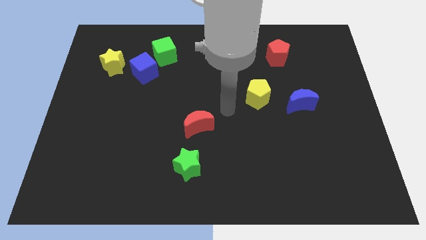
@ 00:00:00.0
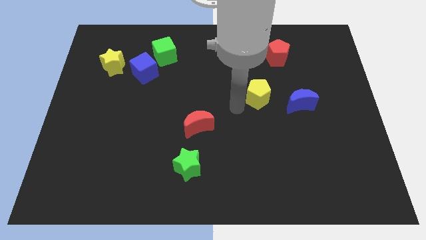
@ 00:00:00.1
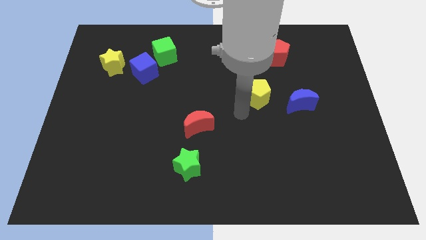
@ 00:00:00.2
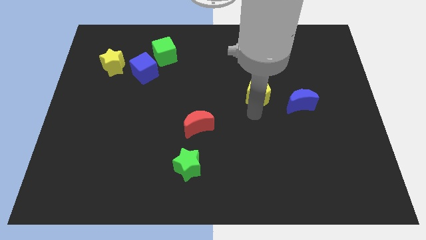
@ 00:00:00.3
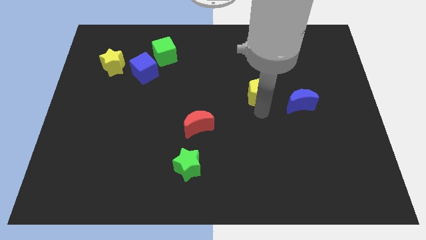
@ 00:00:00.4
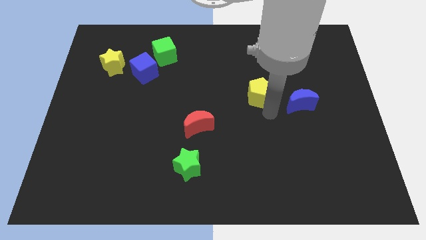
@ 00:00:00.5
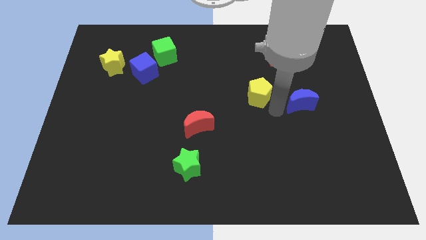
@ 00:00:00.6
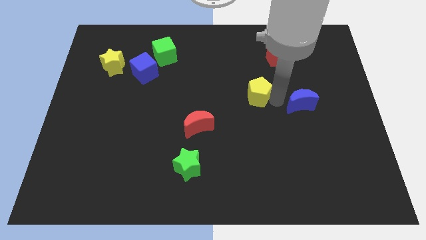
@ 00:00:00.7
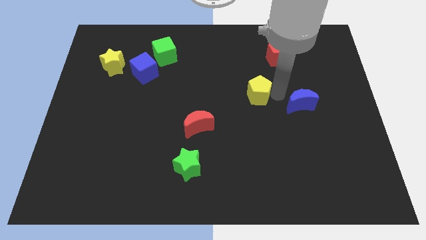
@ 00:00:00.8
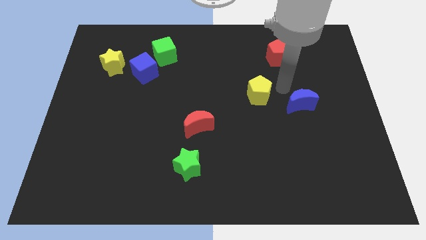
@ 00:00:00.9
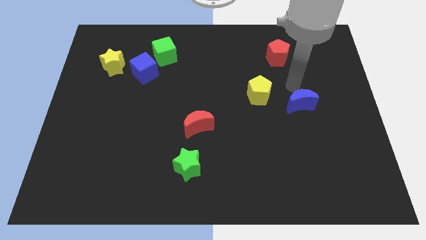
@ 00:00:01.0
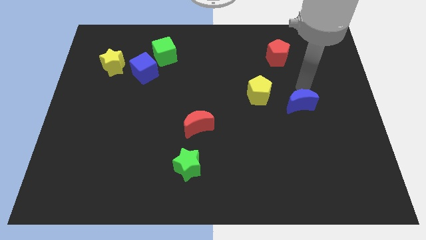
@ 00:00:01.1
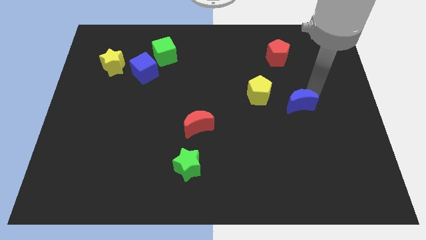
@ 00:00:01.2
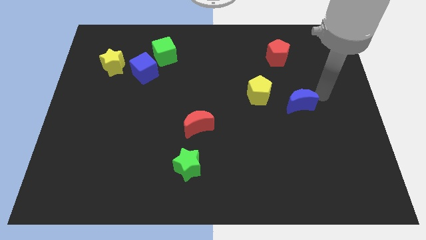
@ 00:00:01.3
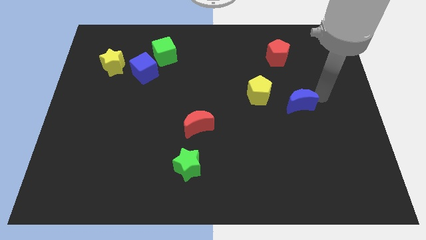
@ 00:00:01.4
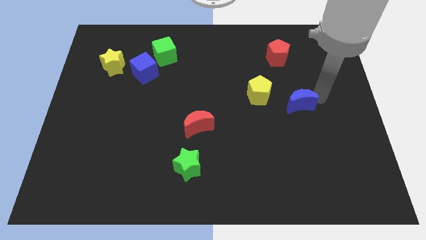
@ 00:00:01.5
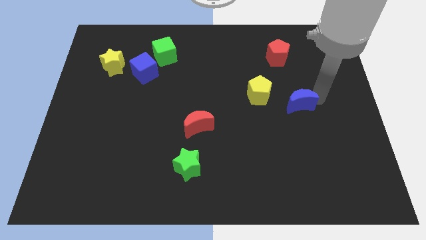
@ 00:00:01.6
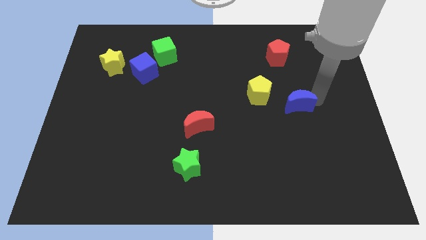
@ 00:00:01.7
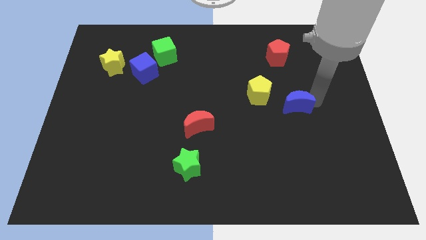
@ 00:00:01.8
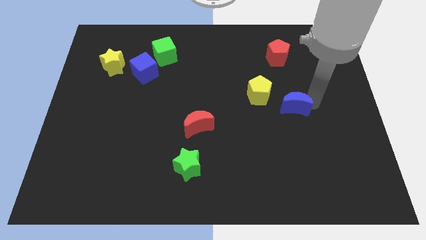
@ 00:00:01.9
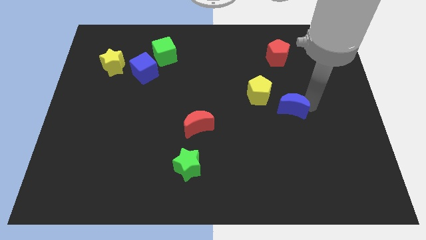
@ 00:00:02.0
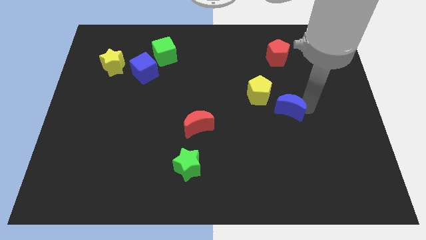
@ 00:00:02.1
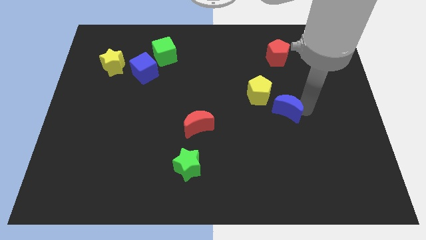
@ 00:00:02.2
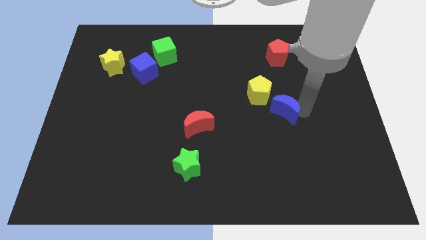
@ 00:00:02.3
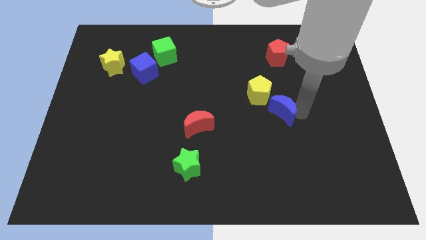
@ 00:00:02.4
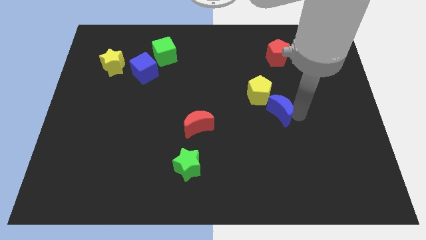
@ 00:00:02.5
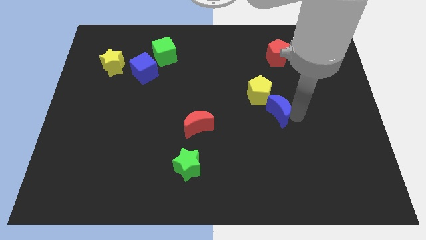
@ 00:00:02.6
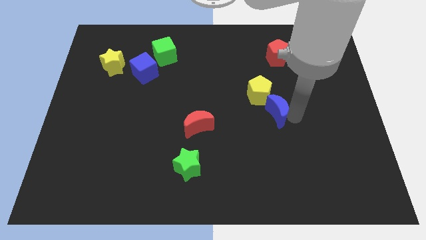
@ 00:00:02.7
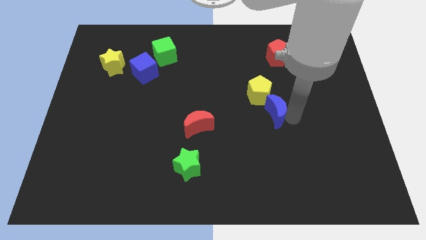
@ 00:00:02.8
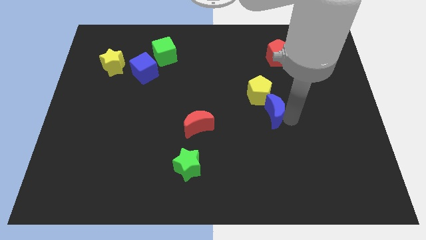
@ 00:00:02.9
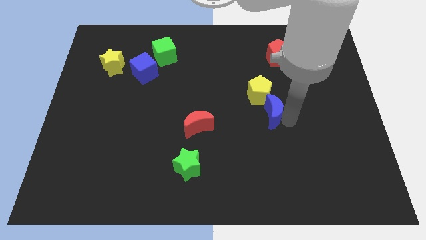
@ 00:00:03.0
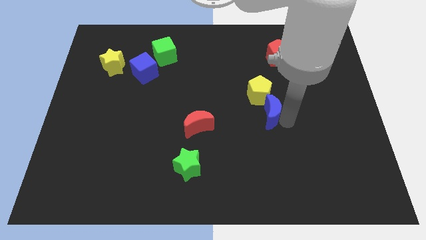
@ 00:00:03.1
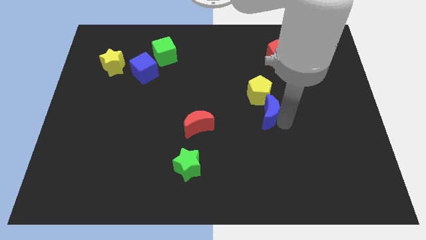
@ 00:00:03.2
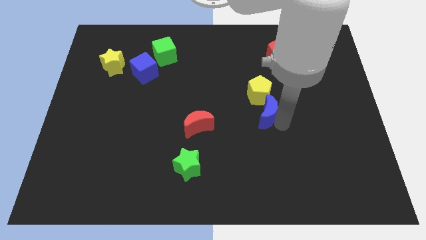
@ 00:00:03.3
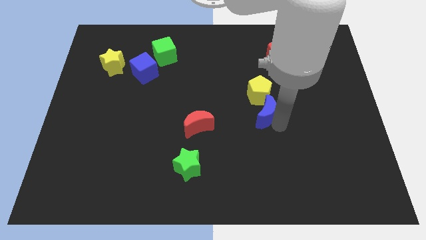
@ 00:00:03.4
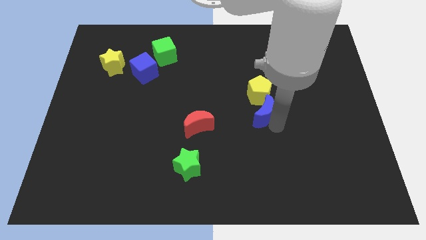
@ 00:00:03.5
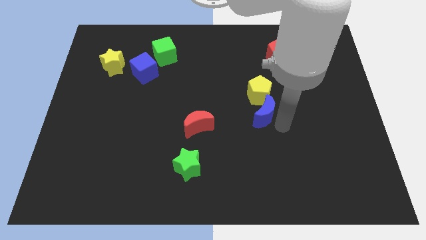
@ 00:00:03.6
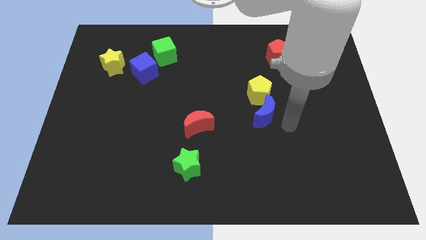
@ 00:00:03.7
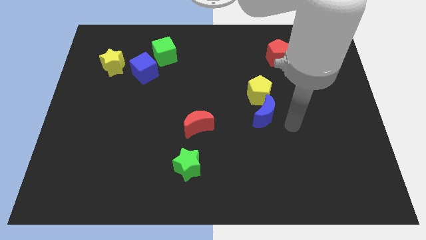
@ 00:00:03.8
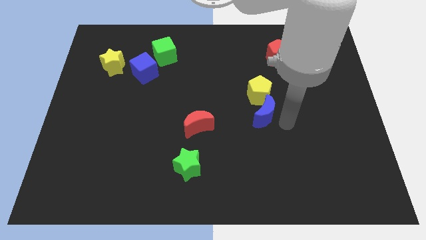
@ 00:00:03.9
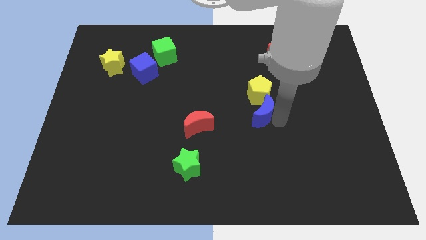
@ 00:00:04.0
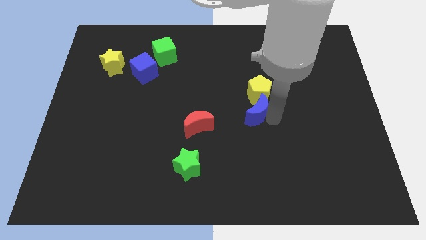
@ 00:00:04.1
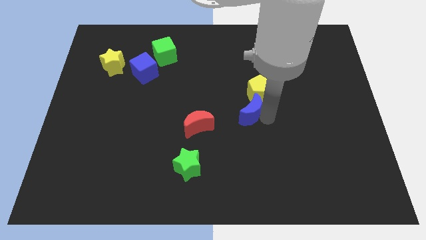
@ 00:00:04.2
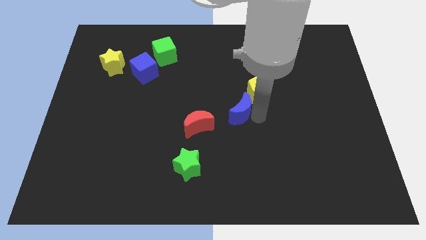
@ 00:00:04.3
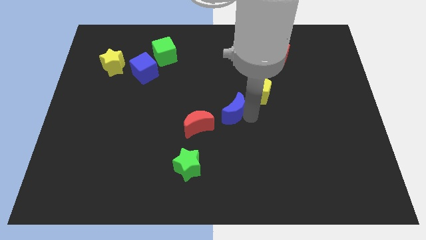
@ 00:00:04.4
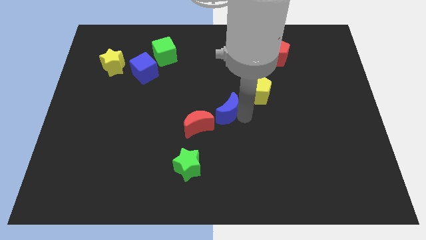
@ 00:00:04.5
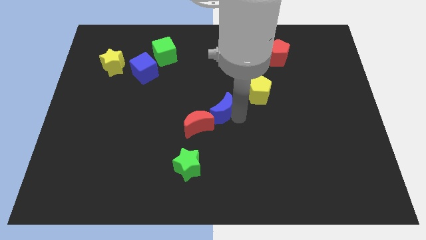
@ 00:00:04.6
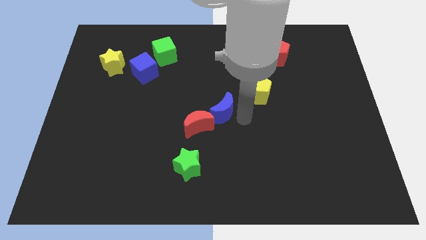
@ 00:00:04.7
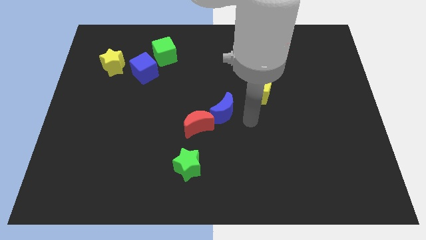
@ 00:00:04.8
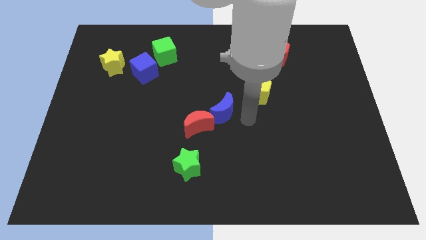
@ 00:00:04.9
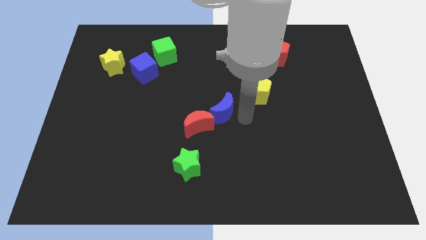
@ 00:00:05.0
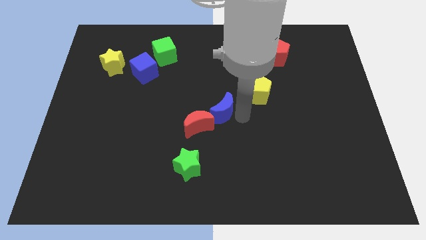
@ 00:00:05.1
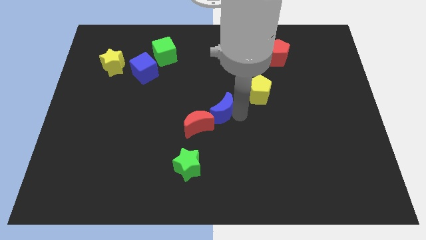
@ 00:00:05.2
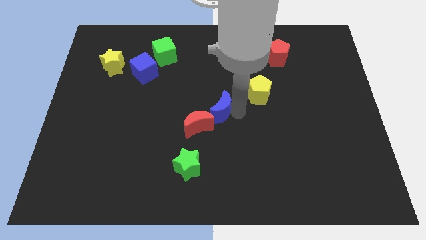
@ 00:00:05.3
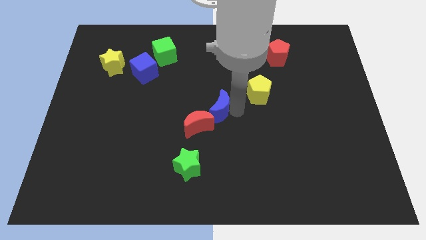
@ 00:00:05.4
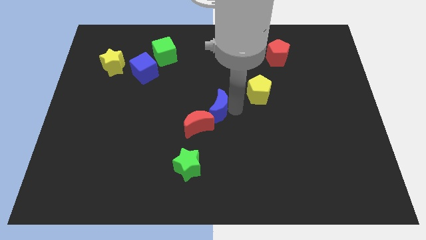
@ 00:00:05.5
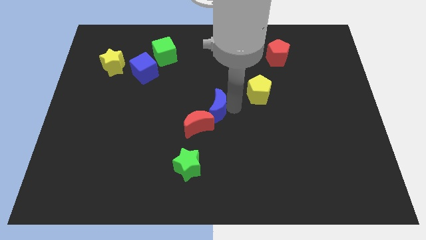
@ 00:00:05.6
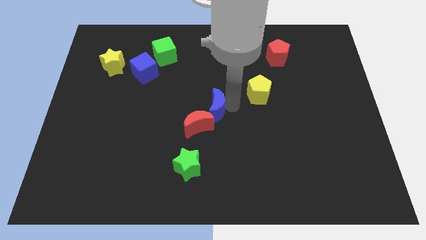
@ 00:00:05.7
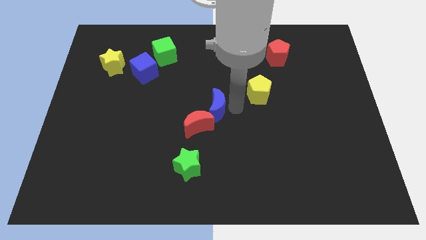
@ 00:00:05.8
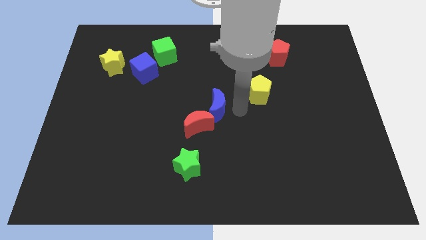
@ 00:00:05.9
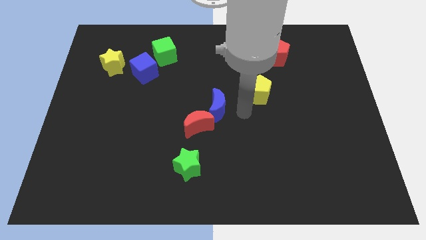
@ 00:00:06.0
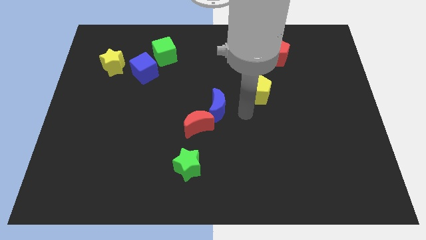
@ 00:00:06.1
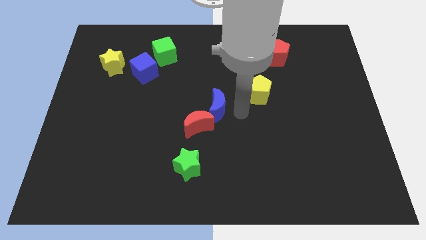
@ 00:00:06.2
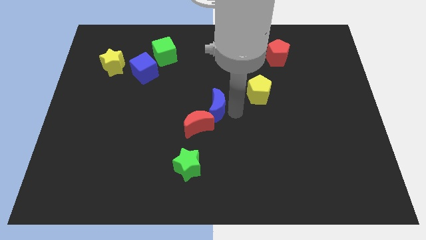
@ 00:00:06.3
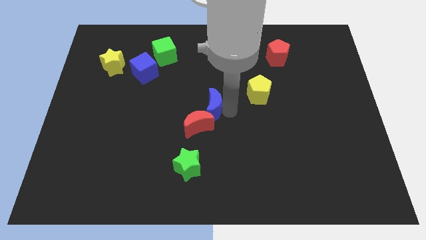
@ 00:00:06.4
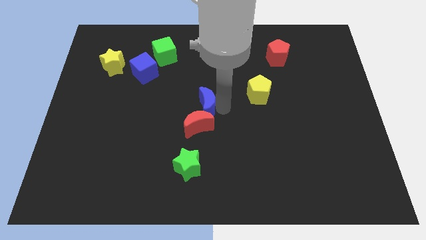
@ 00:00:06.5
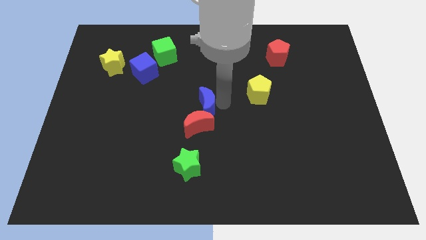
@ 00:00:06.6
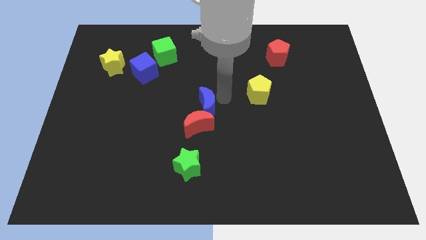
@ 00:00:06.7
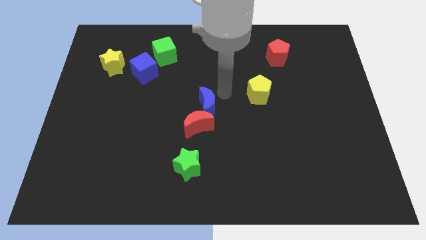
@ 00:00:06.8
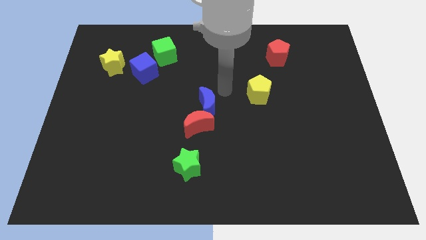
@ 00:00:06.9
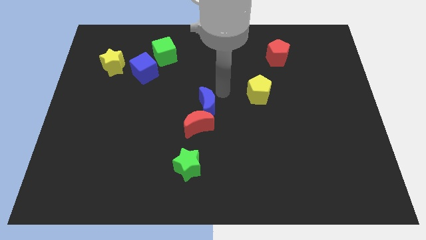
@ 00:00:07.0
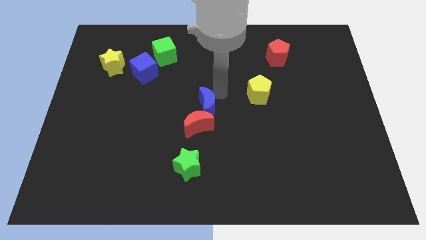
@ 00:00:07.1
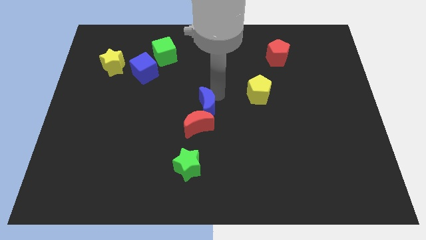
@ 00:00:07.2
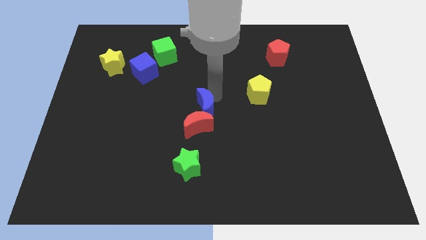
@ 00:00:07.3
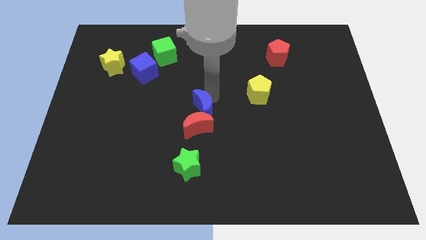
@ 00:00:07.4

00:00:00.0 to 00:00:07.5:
push the blue moon to the top side of the green star

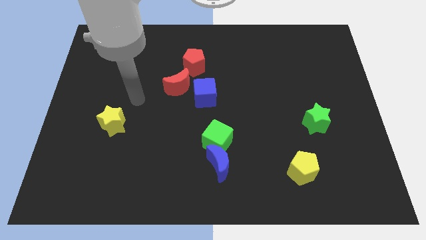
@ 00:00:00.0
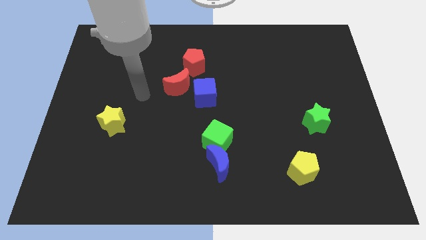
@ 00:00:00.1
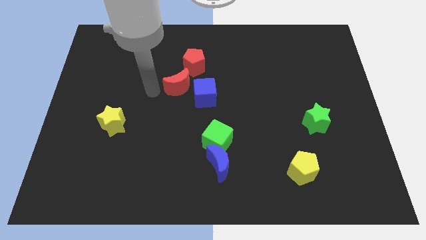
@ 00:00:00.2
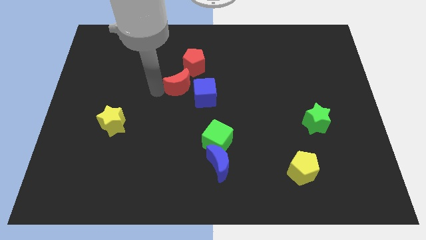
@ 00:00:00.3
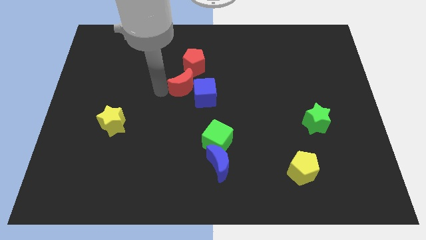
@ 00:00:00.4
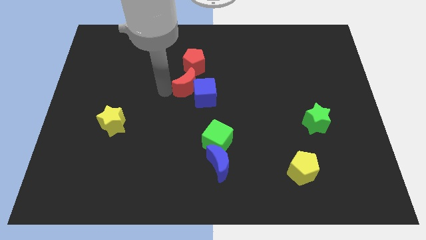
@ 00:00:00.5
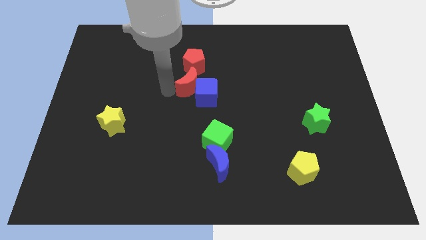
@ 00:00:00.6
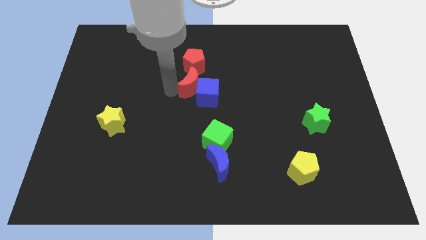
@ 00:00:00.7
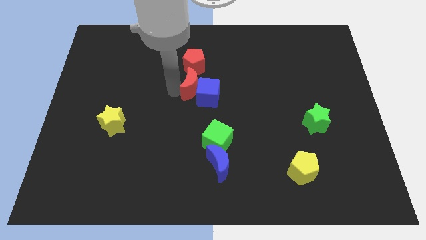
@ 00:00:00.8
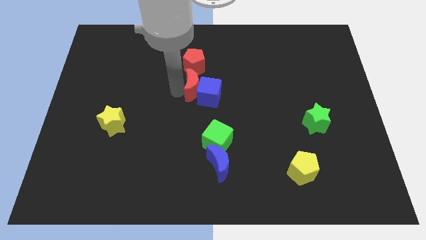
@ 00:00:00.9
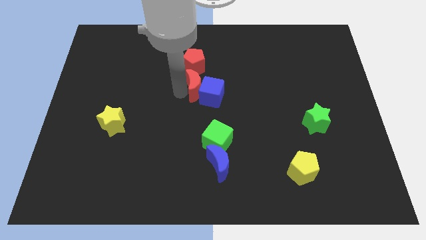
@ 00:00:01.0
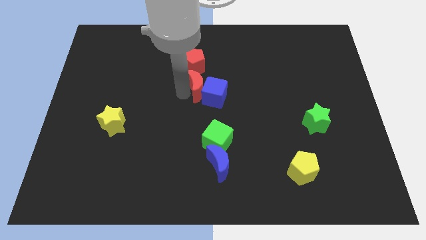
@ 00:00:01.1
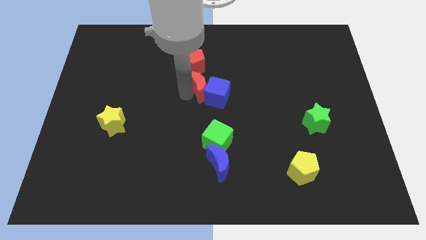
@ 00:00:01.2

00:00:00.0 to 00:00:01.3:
move the red moon diagonally down and to the right of the red pentagon
